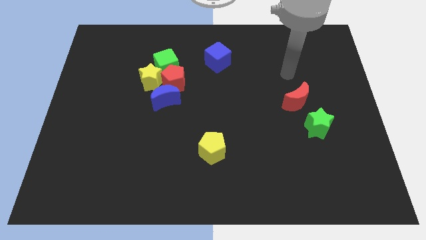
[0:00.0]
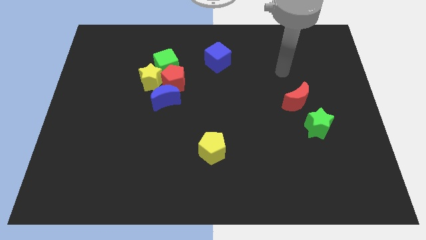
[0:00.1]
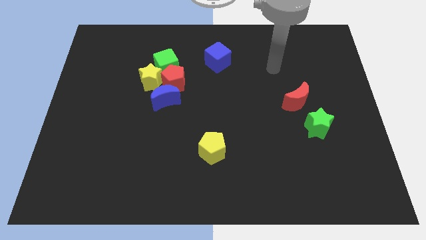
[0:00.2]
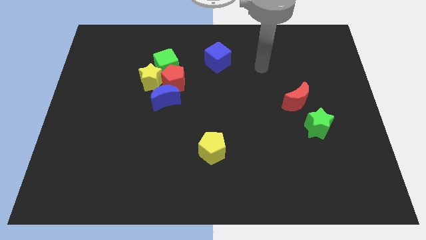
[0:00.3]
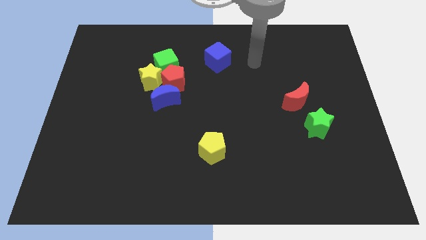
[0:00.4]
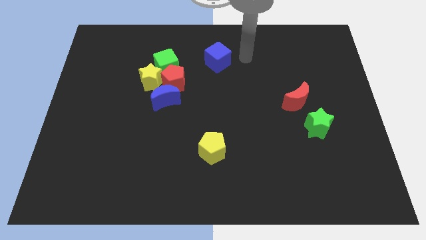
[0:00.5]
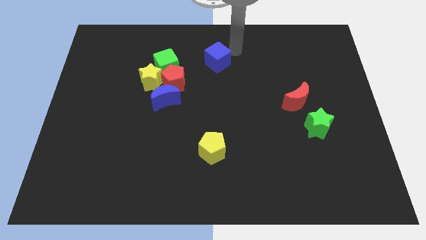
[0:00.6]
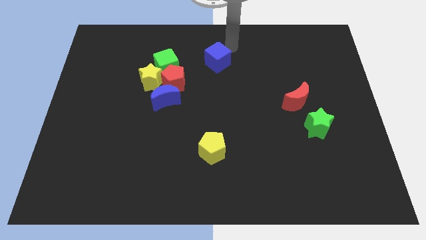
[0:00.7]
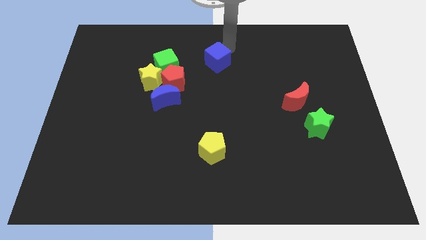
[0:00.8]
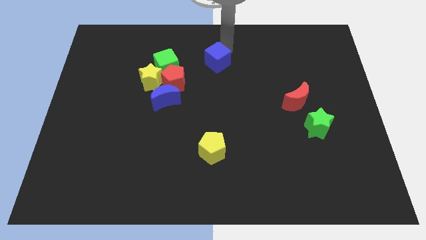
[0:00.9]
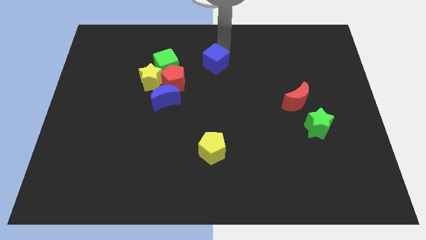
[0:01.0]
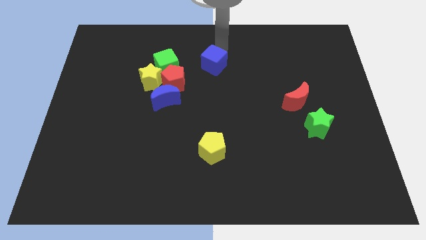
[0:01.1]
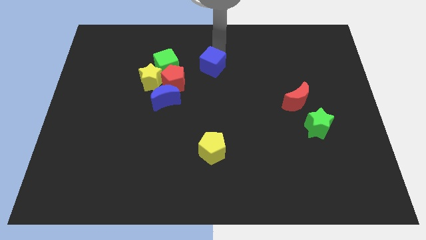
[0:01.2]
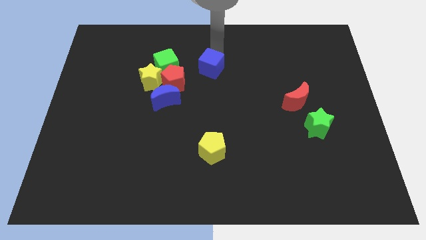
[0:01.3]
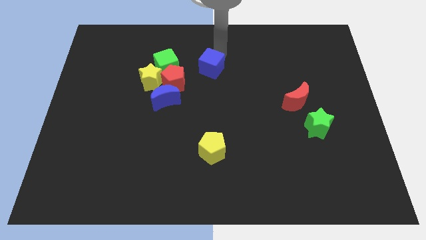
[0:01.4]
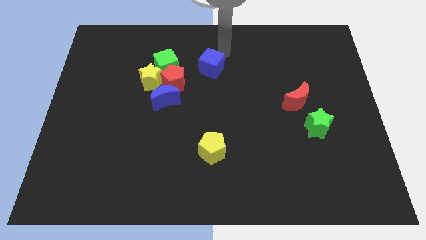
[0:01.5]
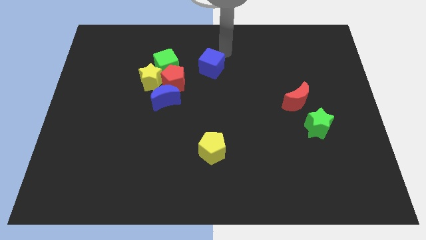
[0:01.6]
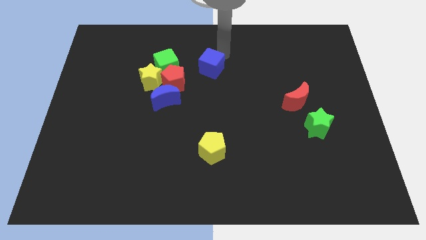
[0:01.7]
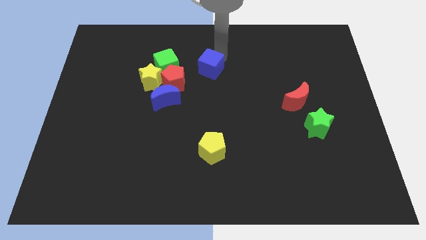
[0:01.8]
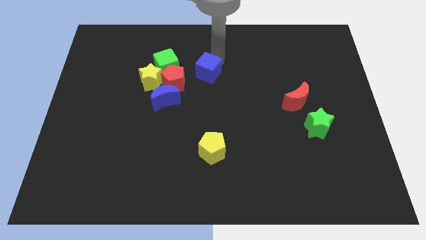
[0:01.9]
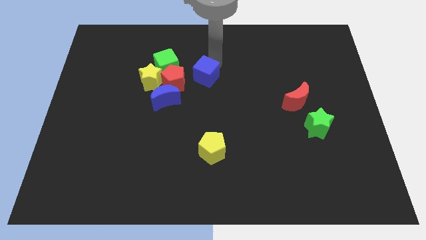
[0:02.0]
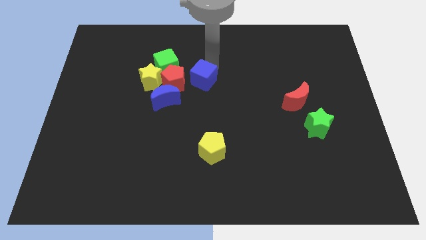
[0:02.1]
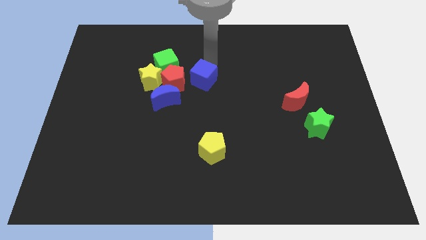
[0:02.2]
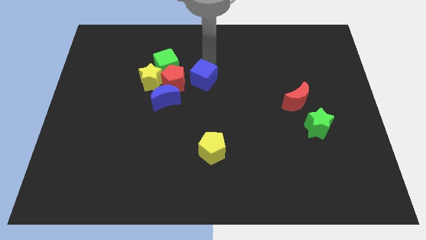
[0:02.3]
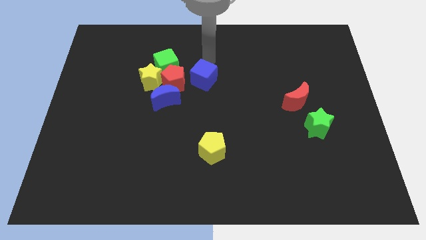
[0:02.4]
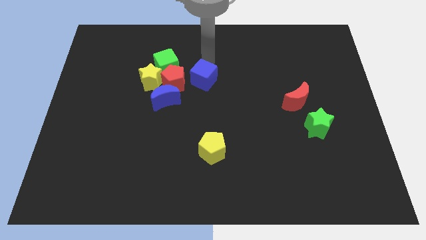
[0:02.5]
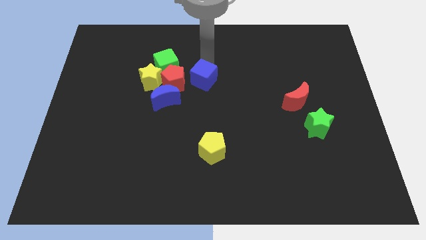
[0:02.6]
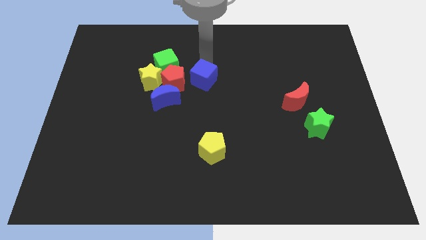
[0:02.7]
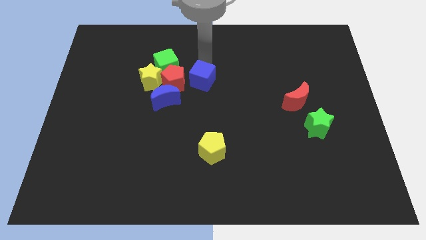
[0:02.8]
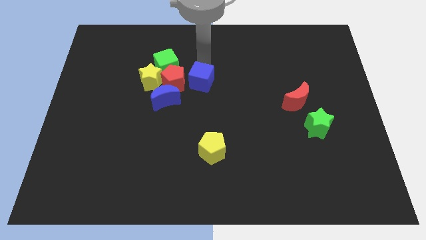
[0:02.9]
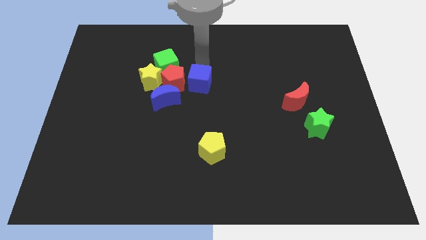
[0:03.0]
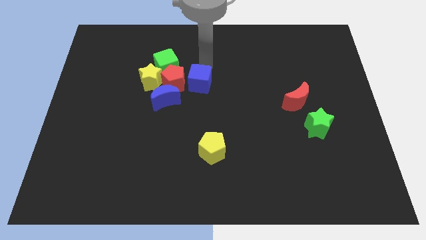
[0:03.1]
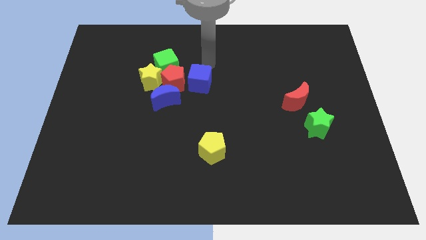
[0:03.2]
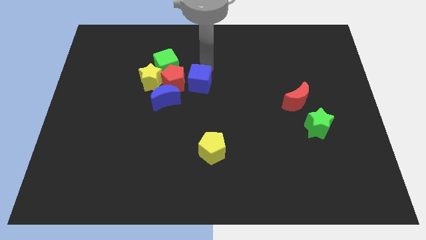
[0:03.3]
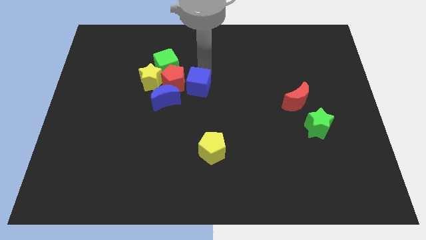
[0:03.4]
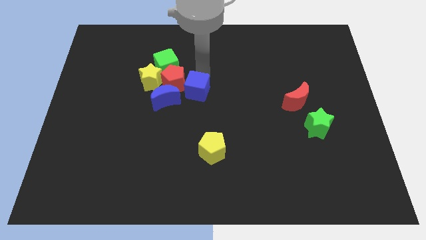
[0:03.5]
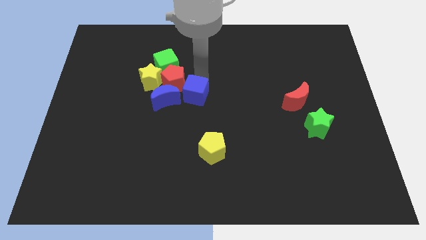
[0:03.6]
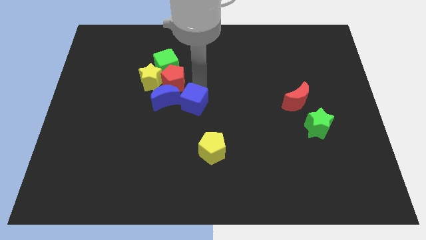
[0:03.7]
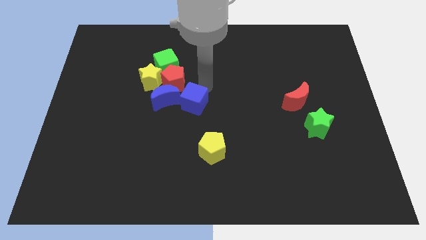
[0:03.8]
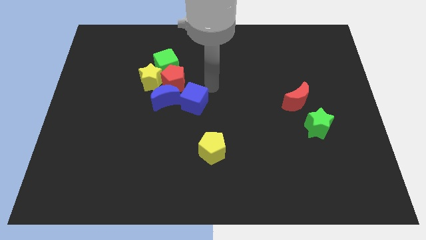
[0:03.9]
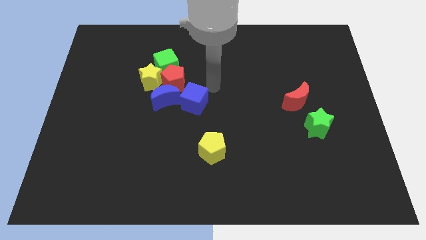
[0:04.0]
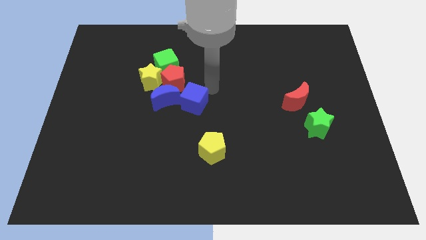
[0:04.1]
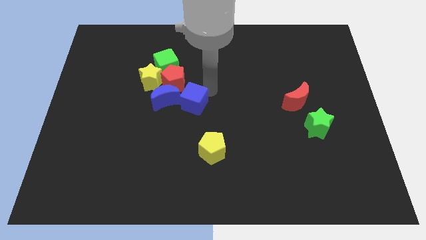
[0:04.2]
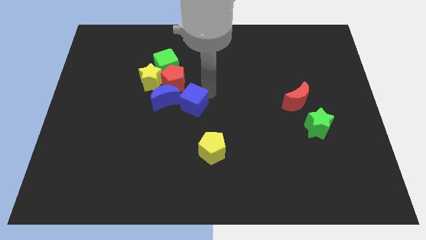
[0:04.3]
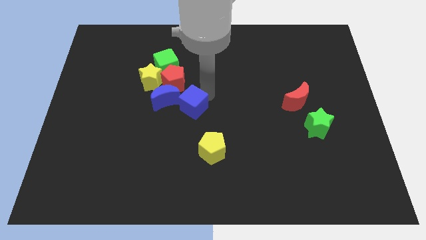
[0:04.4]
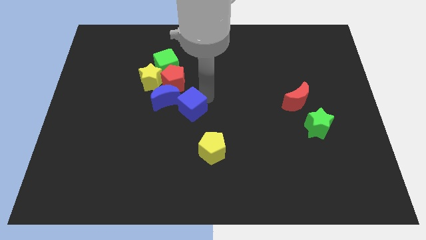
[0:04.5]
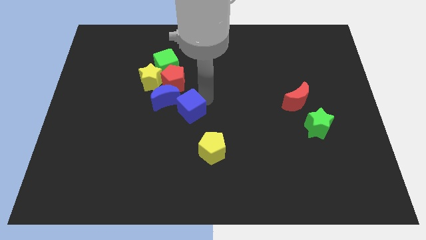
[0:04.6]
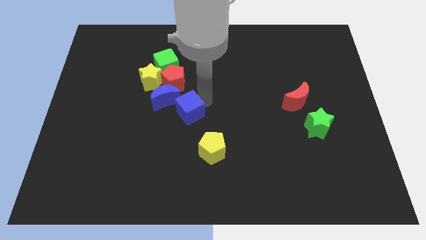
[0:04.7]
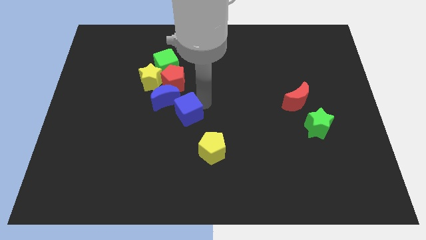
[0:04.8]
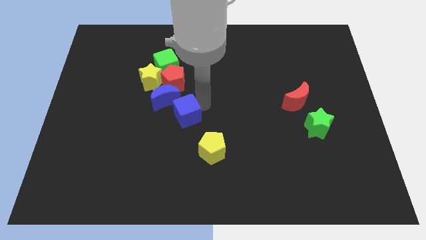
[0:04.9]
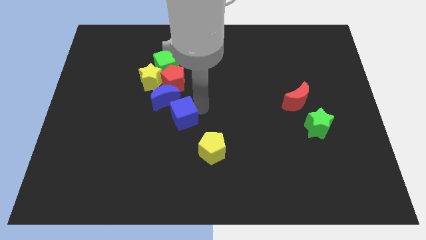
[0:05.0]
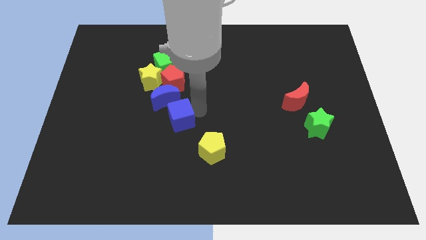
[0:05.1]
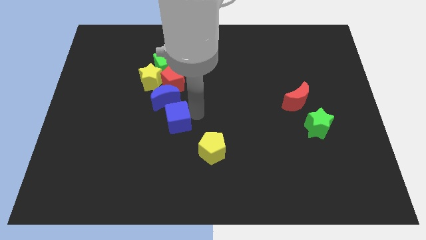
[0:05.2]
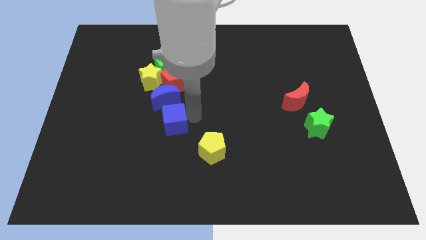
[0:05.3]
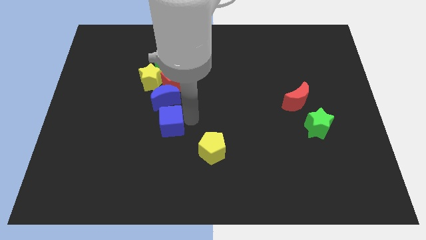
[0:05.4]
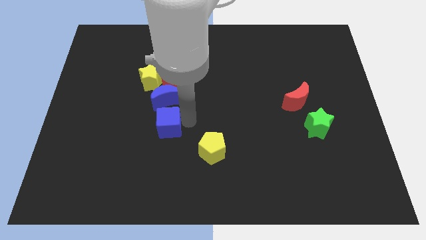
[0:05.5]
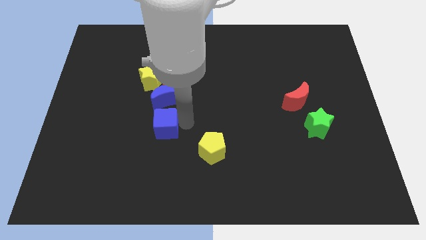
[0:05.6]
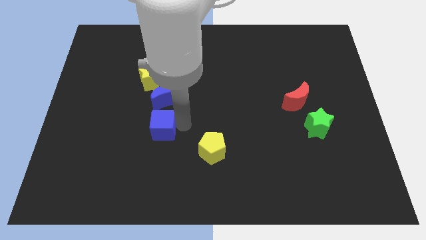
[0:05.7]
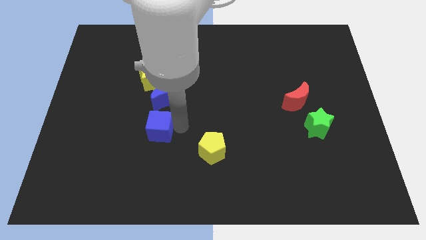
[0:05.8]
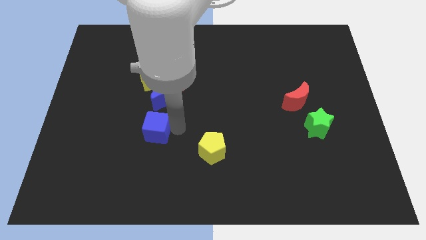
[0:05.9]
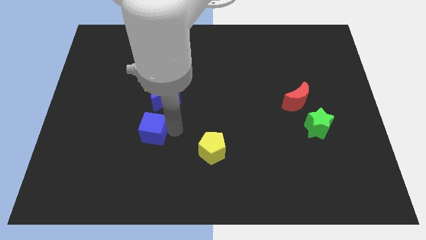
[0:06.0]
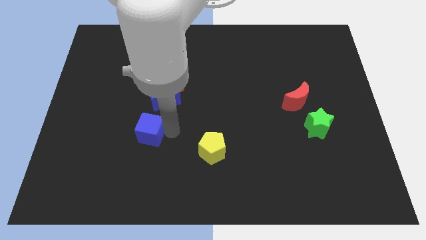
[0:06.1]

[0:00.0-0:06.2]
slide the blue cube diagonally down and to the left of the blue moon

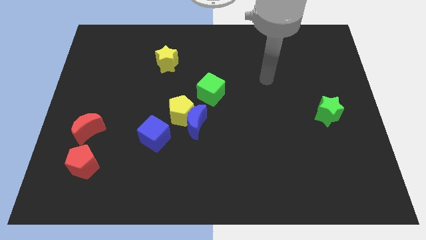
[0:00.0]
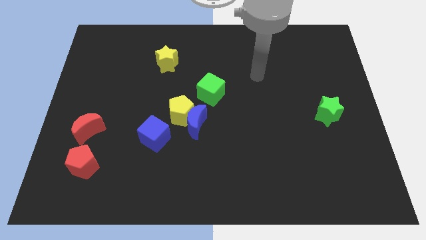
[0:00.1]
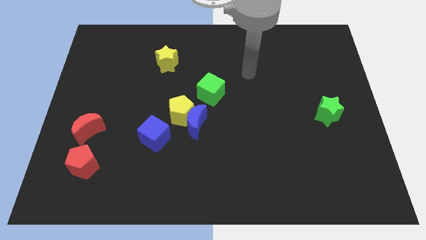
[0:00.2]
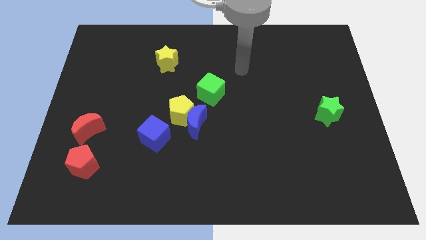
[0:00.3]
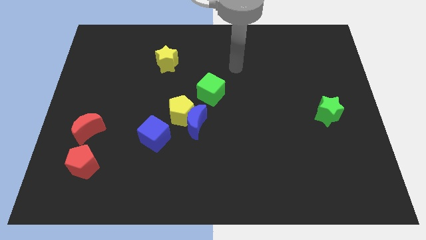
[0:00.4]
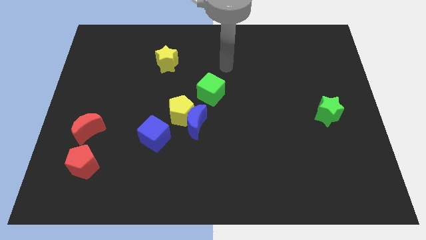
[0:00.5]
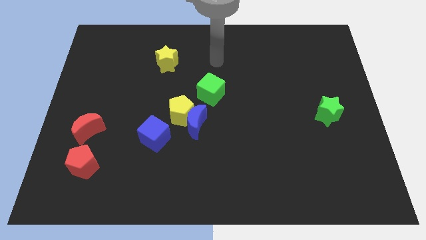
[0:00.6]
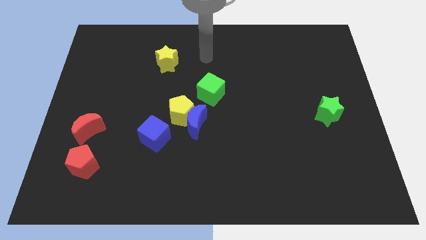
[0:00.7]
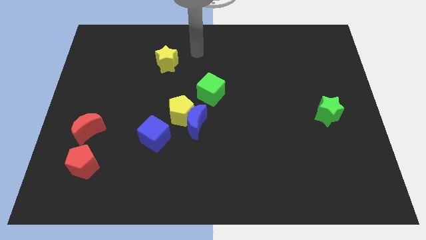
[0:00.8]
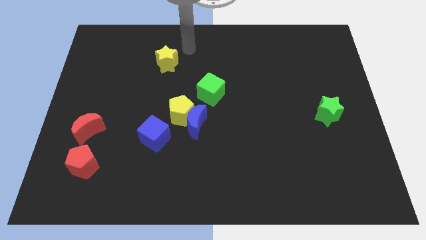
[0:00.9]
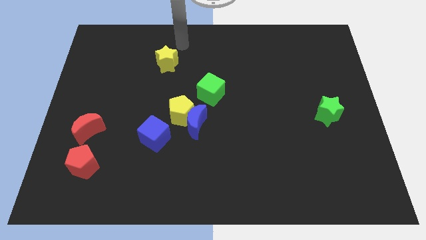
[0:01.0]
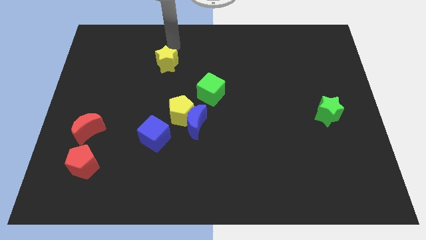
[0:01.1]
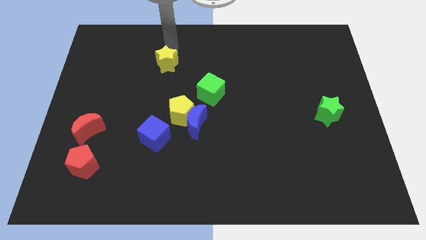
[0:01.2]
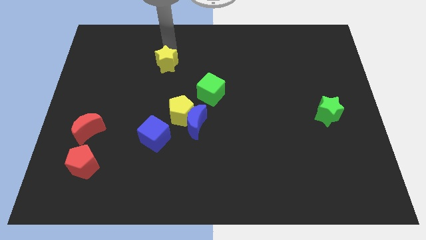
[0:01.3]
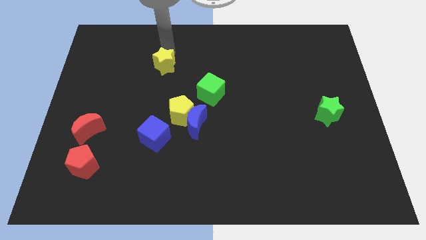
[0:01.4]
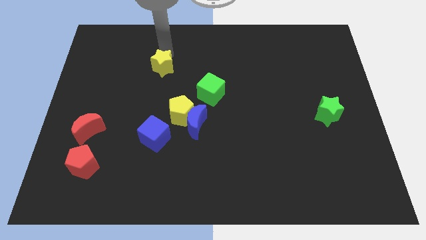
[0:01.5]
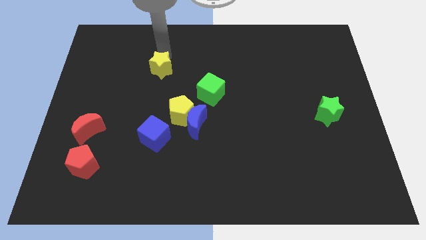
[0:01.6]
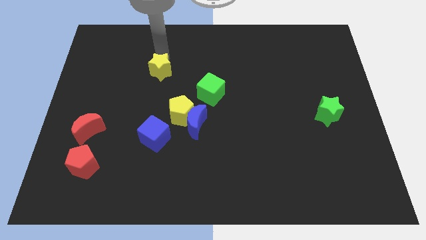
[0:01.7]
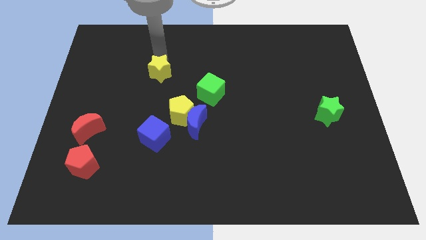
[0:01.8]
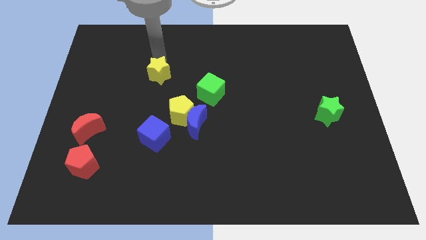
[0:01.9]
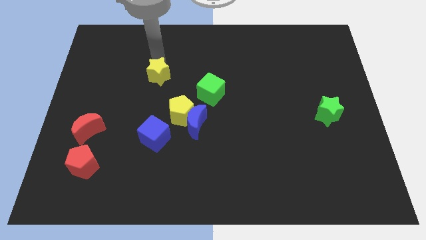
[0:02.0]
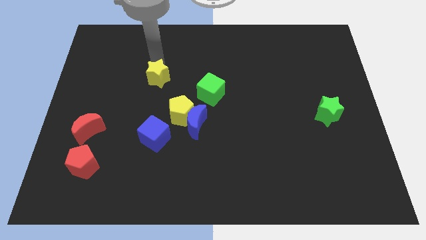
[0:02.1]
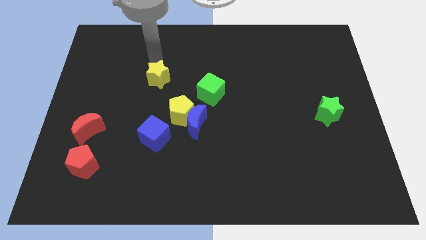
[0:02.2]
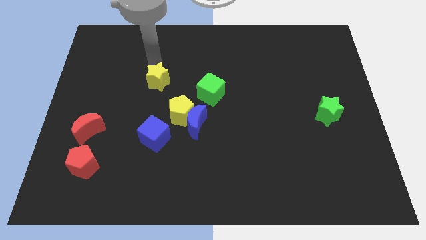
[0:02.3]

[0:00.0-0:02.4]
move the yellow star to the top left side of the yellow pentagon
